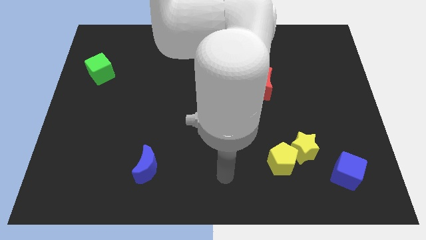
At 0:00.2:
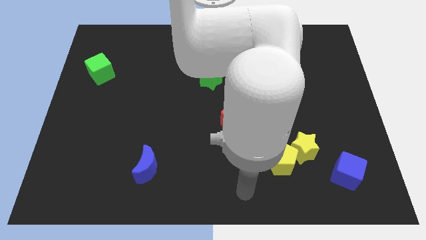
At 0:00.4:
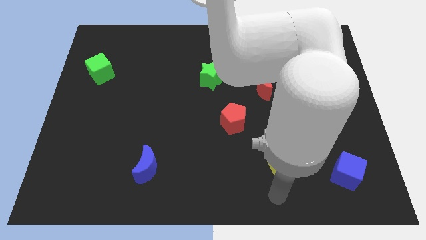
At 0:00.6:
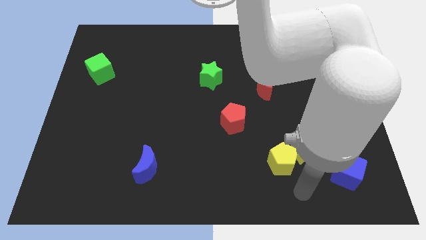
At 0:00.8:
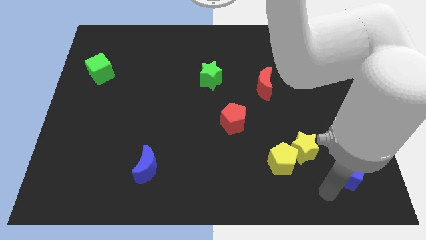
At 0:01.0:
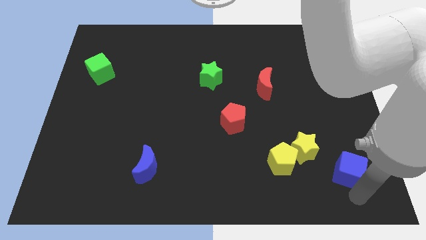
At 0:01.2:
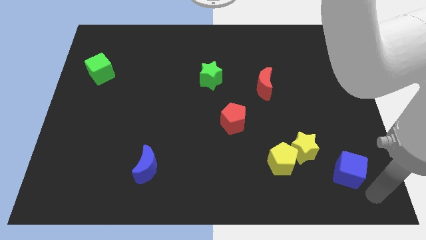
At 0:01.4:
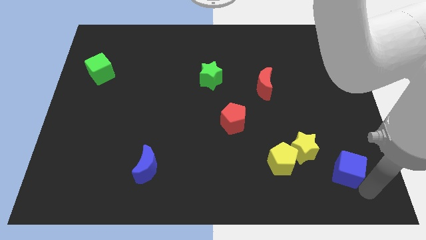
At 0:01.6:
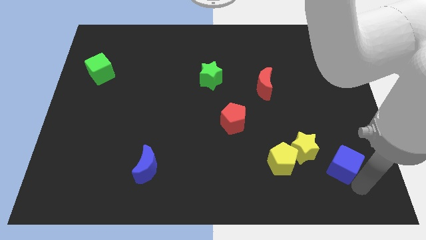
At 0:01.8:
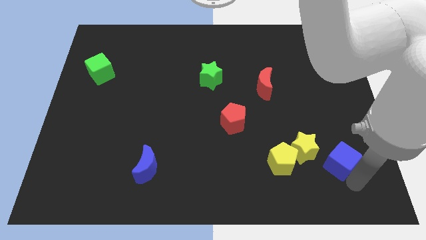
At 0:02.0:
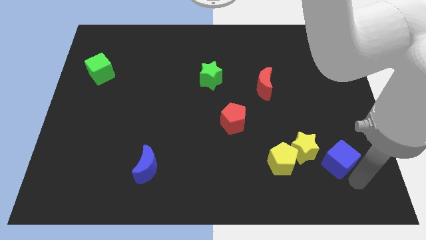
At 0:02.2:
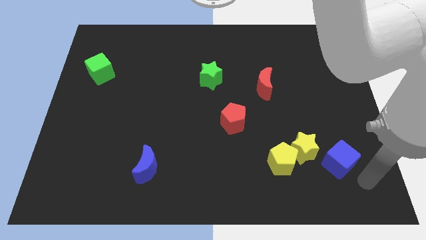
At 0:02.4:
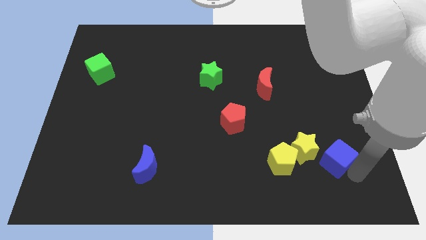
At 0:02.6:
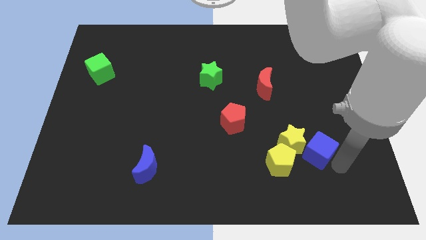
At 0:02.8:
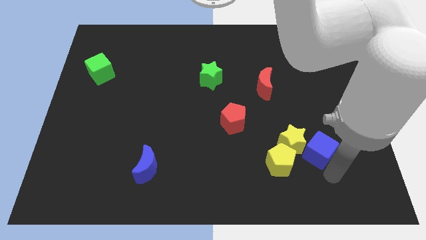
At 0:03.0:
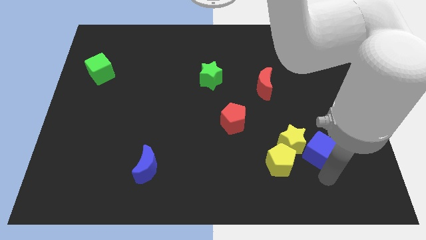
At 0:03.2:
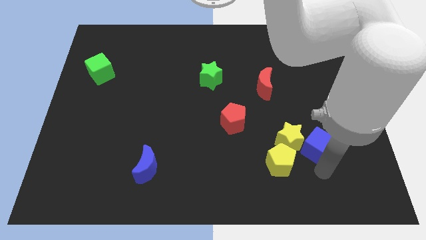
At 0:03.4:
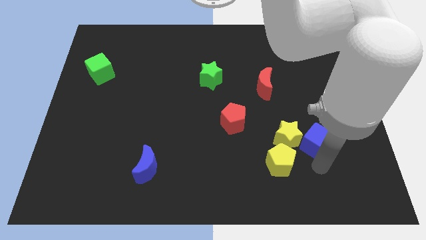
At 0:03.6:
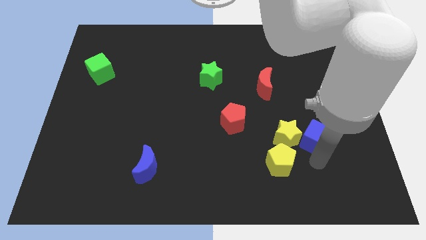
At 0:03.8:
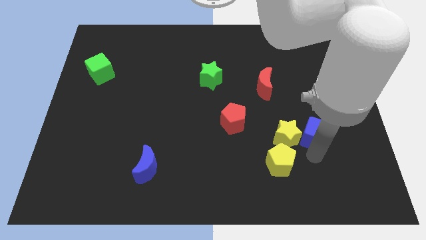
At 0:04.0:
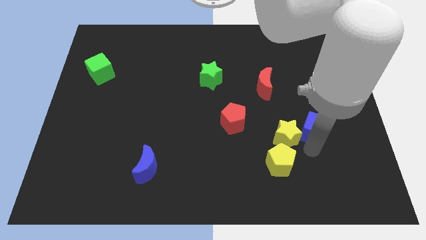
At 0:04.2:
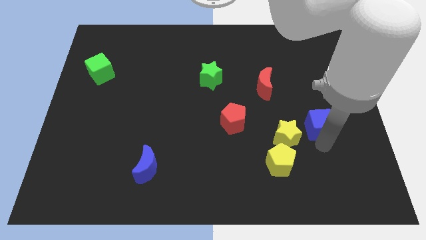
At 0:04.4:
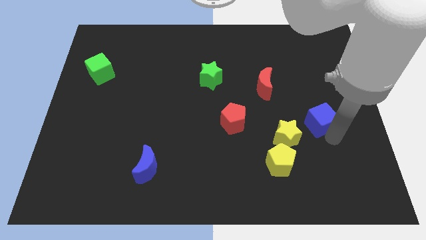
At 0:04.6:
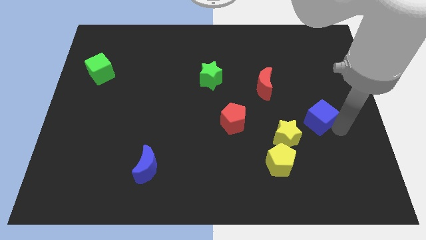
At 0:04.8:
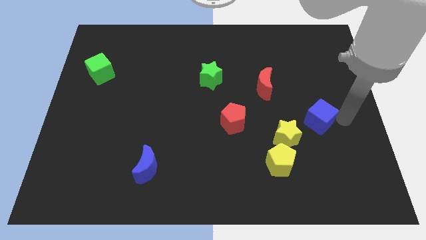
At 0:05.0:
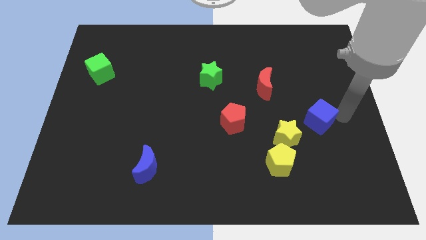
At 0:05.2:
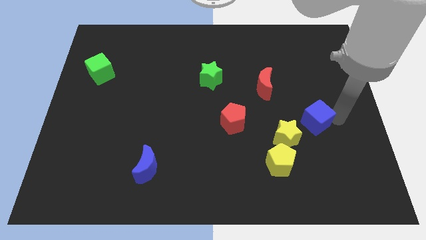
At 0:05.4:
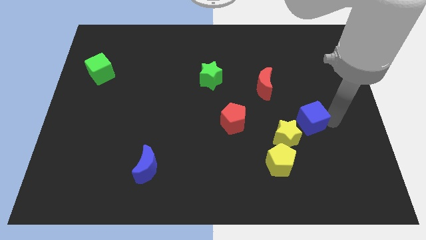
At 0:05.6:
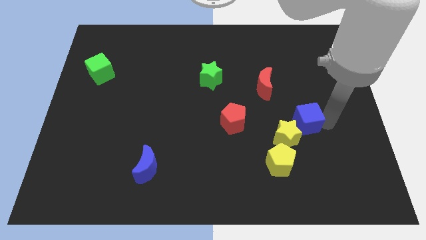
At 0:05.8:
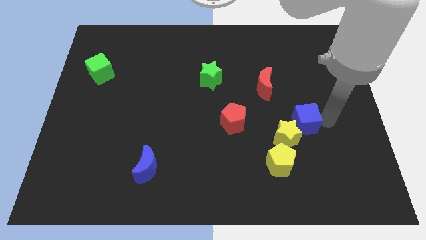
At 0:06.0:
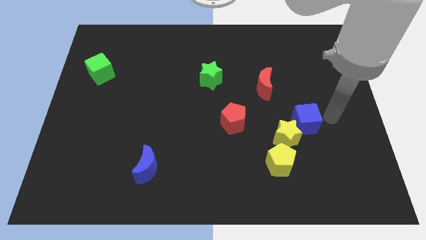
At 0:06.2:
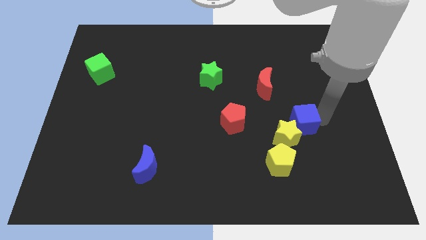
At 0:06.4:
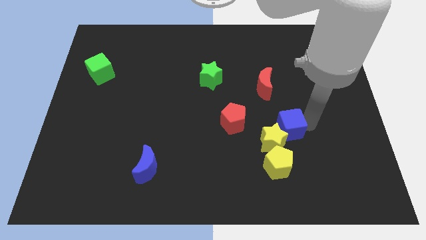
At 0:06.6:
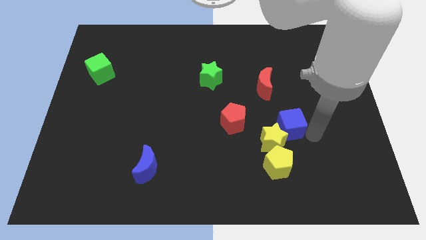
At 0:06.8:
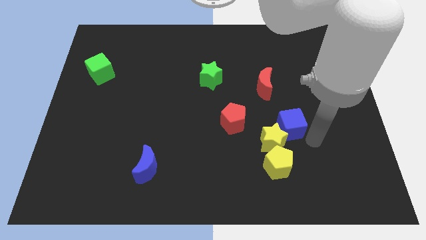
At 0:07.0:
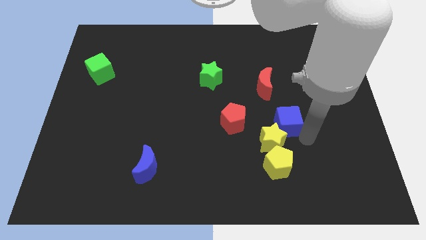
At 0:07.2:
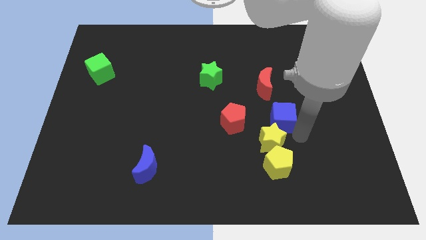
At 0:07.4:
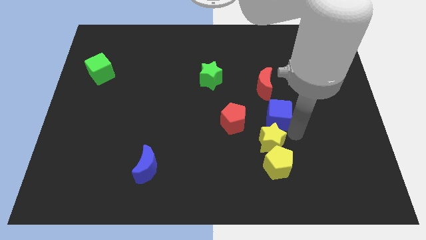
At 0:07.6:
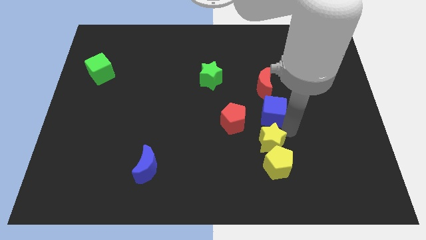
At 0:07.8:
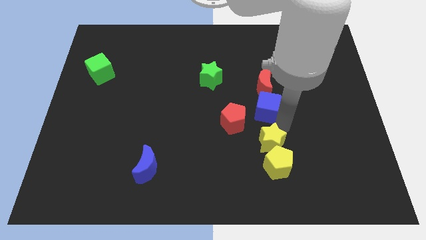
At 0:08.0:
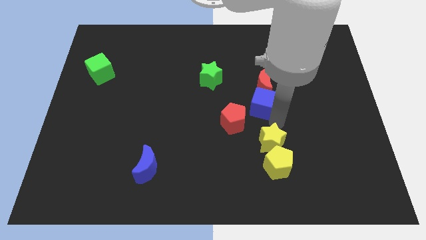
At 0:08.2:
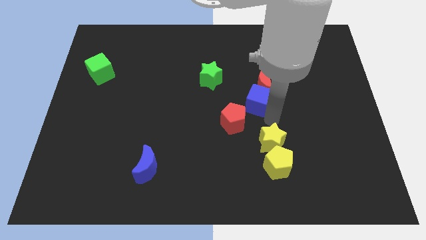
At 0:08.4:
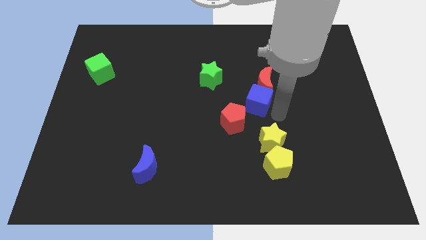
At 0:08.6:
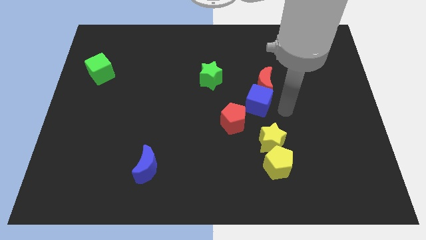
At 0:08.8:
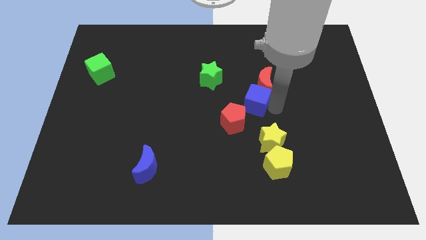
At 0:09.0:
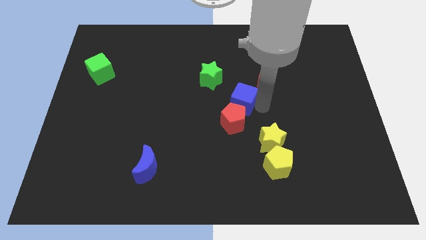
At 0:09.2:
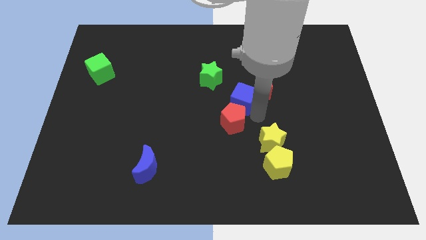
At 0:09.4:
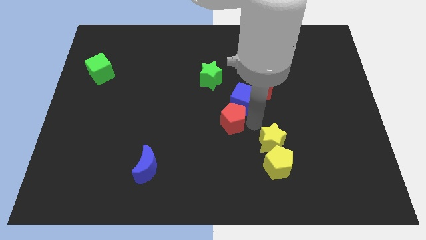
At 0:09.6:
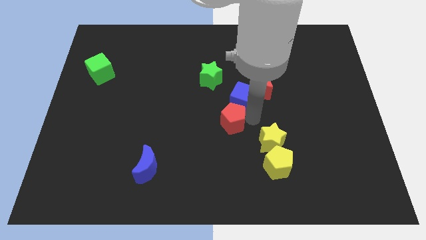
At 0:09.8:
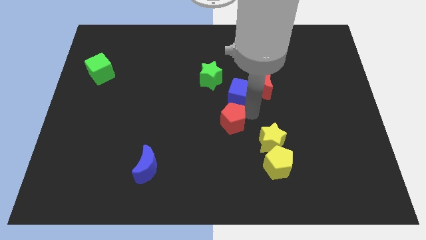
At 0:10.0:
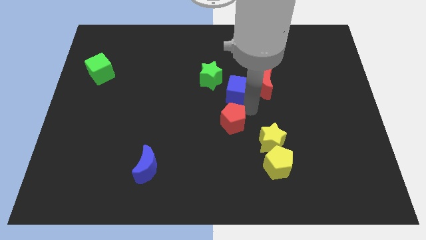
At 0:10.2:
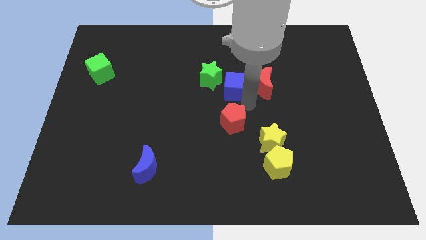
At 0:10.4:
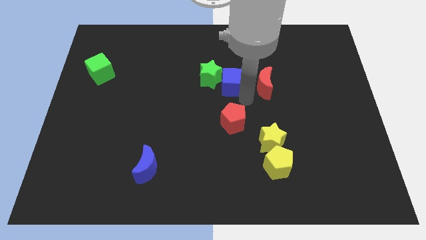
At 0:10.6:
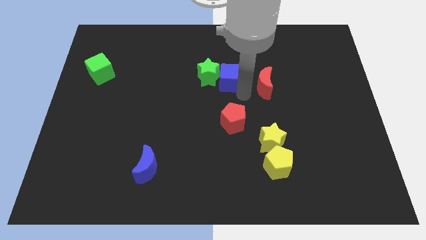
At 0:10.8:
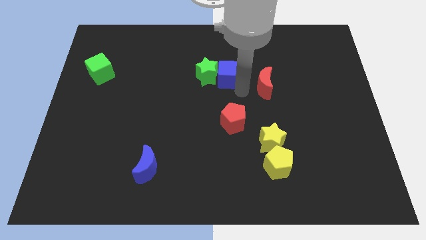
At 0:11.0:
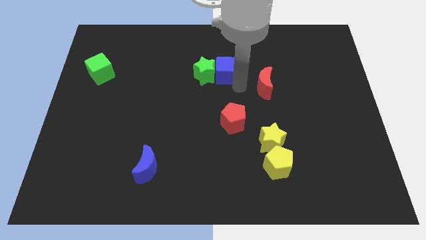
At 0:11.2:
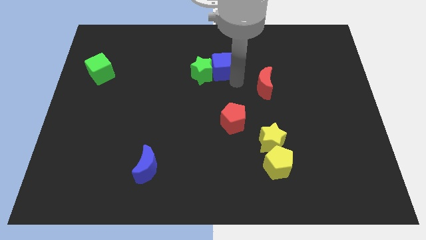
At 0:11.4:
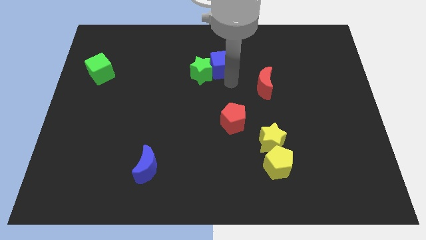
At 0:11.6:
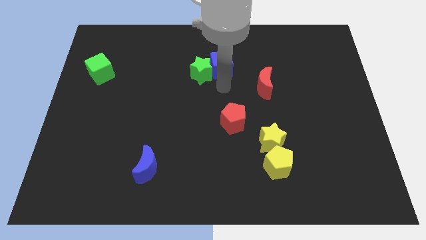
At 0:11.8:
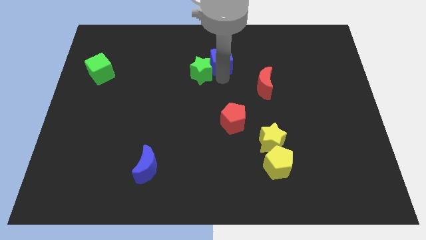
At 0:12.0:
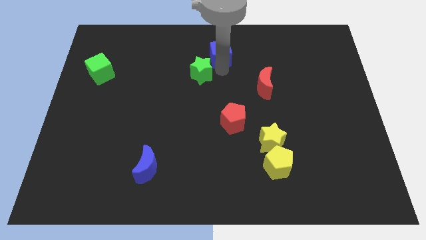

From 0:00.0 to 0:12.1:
push the blue cube to the towards your base
